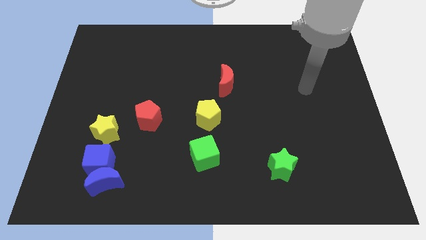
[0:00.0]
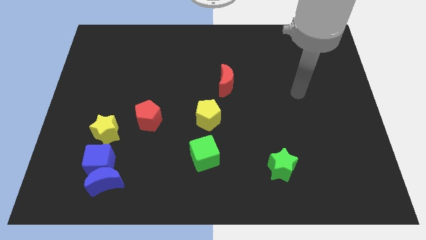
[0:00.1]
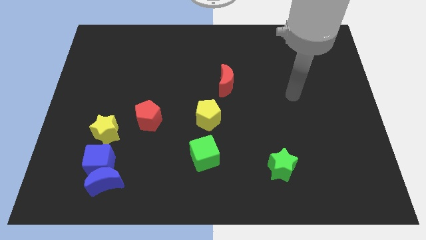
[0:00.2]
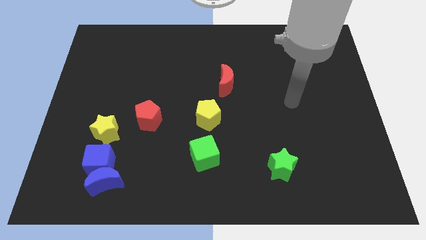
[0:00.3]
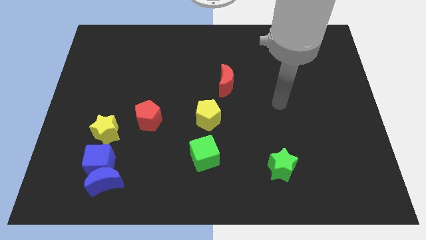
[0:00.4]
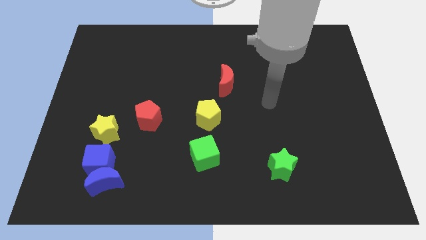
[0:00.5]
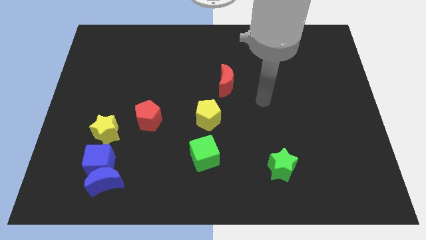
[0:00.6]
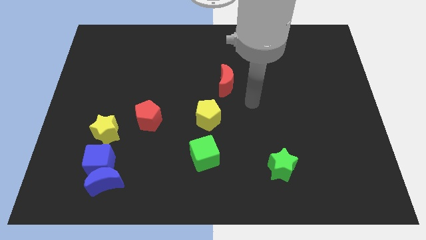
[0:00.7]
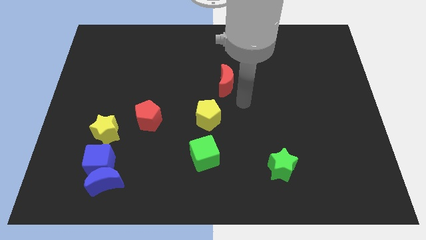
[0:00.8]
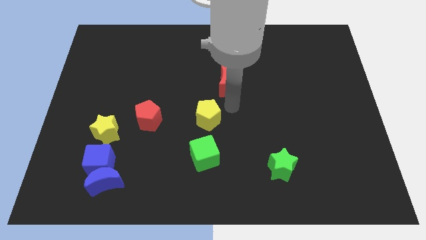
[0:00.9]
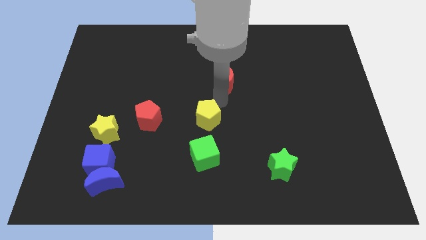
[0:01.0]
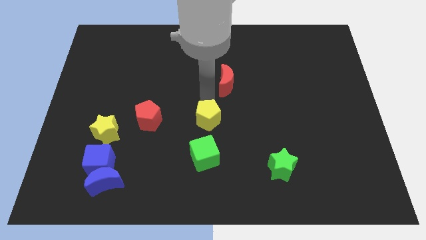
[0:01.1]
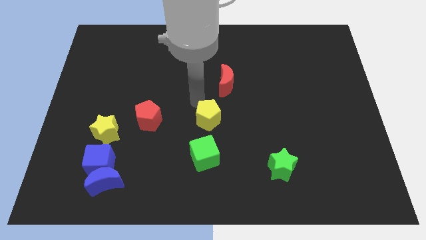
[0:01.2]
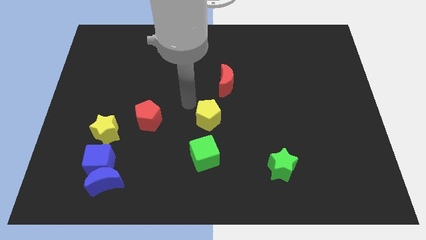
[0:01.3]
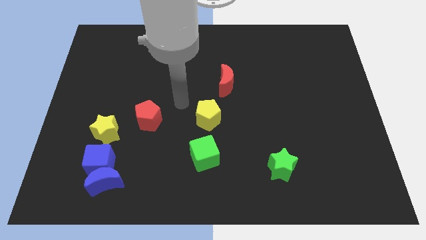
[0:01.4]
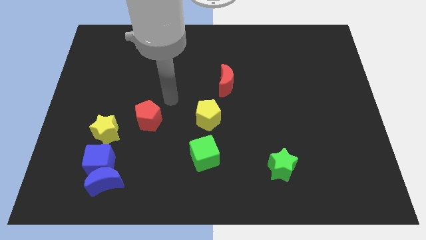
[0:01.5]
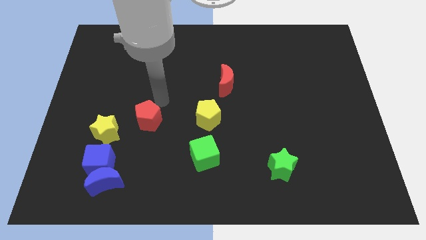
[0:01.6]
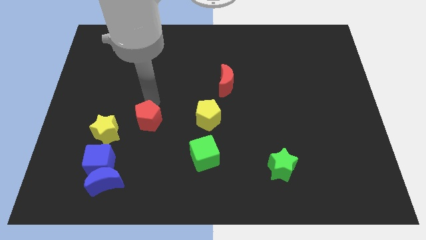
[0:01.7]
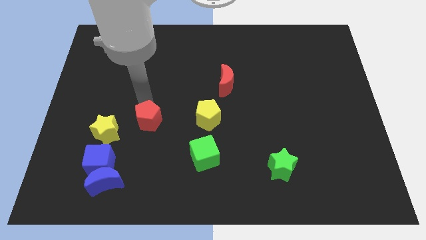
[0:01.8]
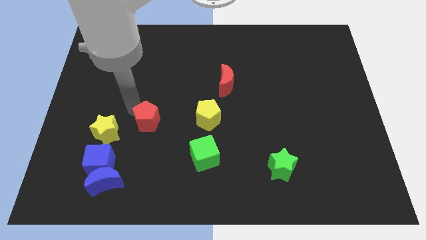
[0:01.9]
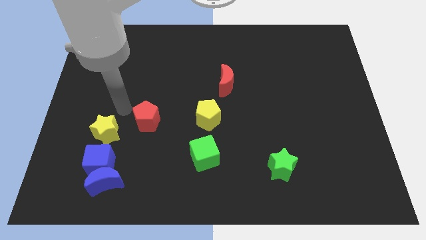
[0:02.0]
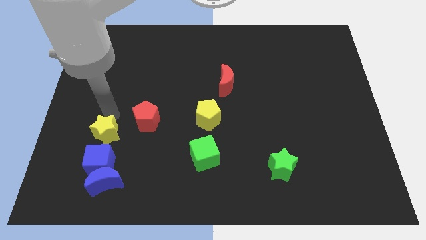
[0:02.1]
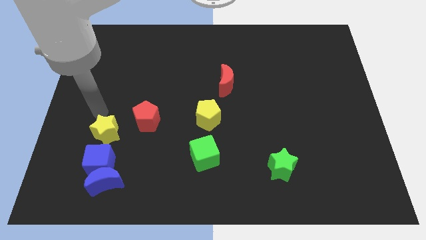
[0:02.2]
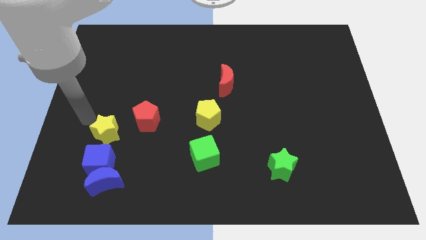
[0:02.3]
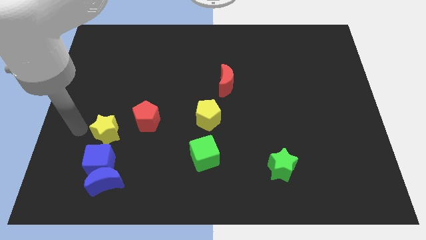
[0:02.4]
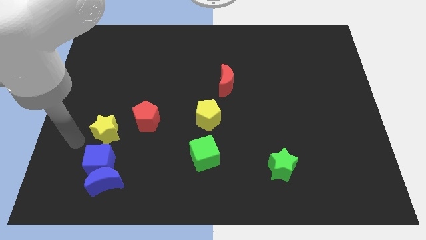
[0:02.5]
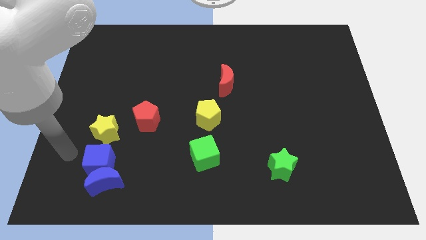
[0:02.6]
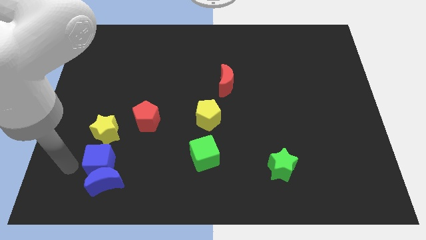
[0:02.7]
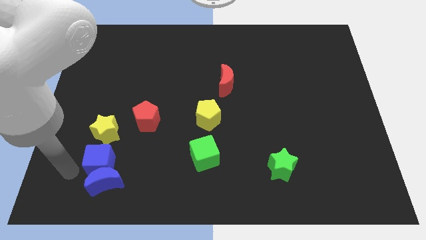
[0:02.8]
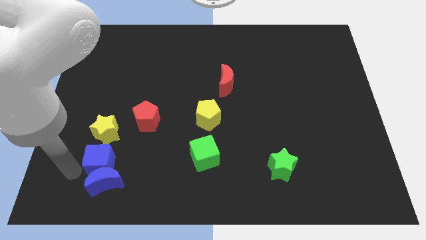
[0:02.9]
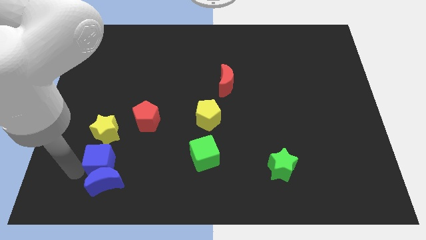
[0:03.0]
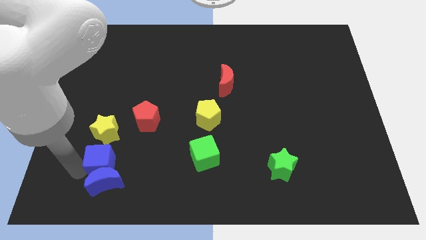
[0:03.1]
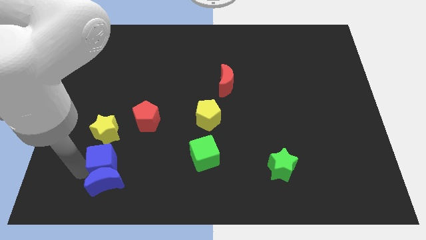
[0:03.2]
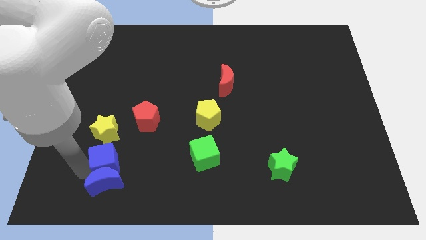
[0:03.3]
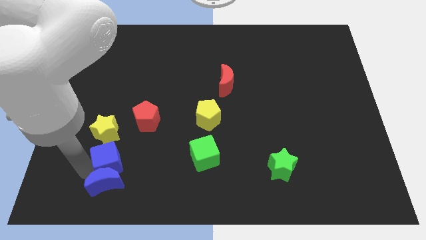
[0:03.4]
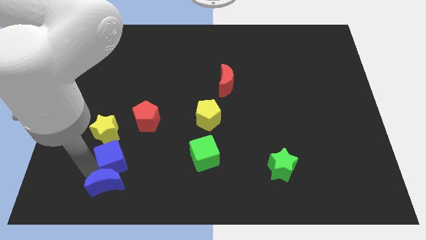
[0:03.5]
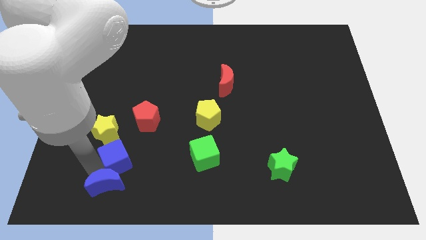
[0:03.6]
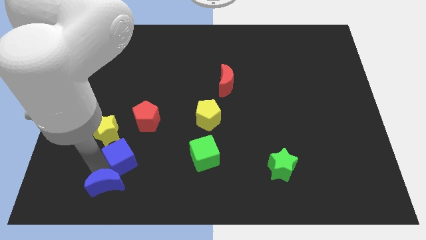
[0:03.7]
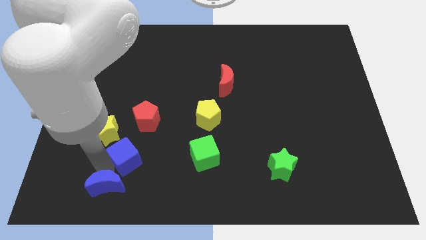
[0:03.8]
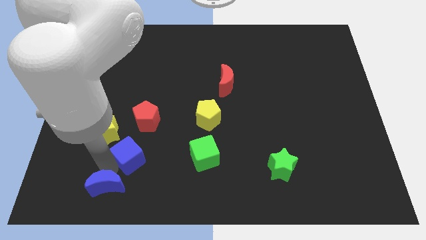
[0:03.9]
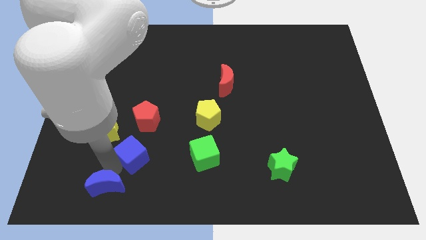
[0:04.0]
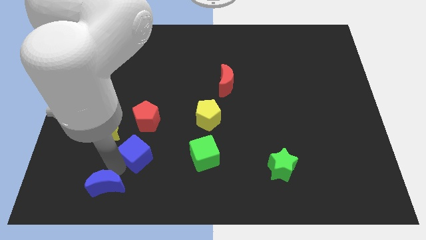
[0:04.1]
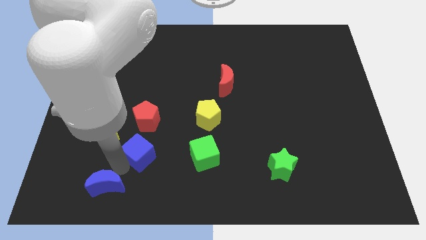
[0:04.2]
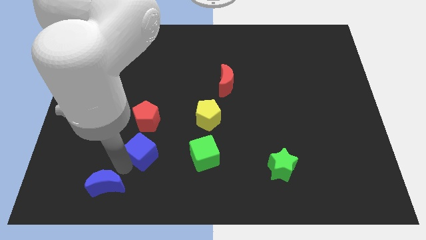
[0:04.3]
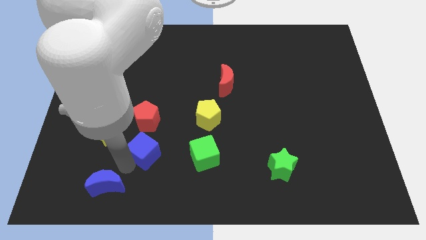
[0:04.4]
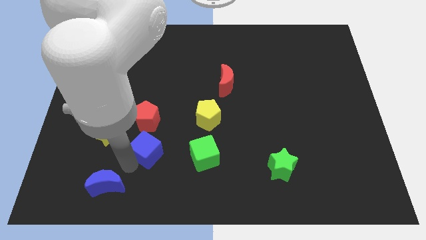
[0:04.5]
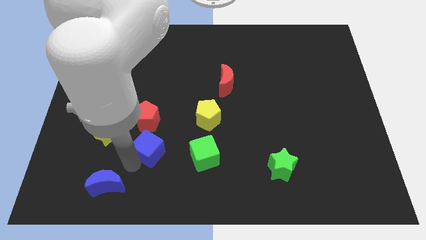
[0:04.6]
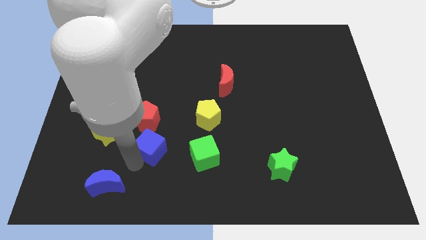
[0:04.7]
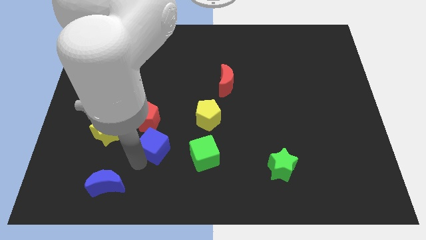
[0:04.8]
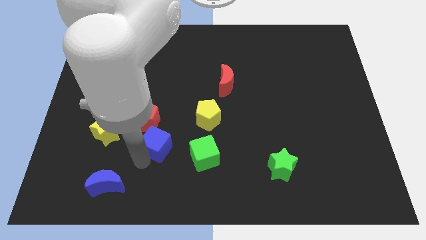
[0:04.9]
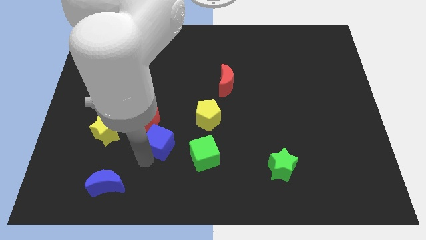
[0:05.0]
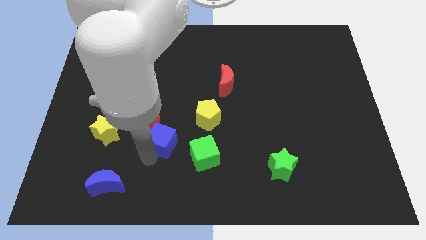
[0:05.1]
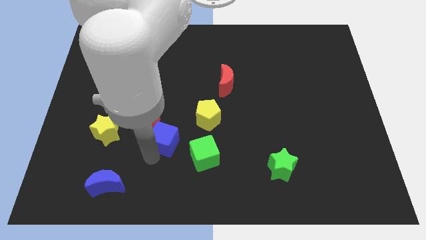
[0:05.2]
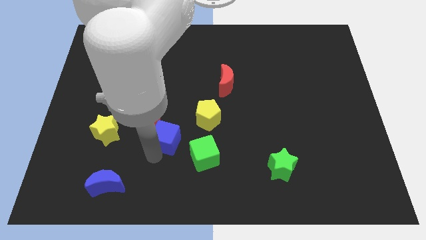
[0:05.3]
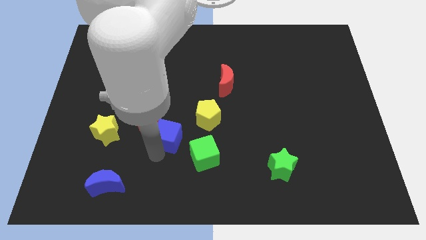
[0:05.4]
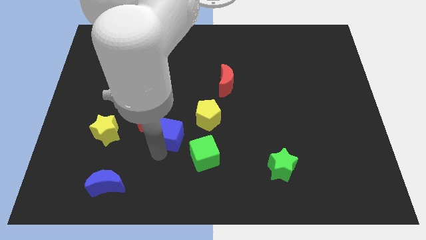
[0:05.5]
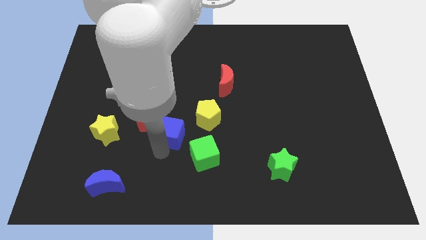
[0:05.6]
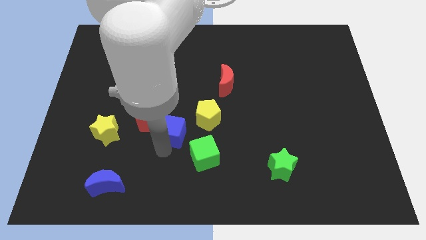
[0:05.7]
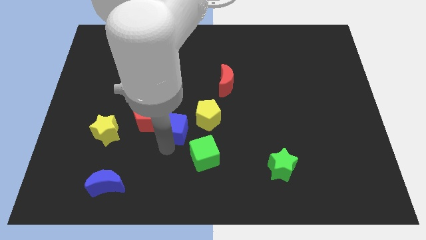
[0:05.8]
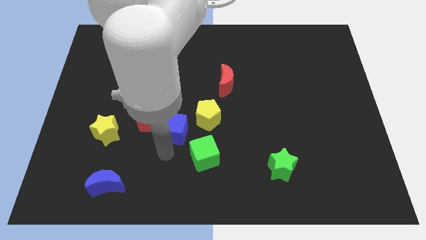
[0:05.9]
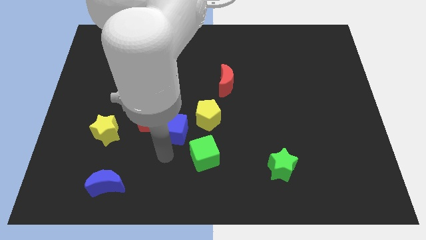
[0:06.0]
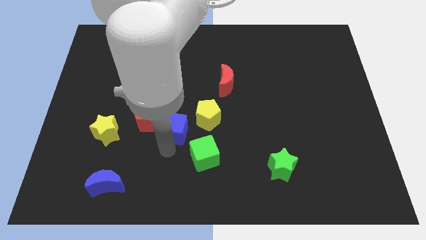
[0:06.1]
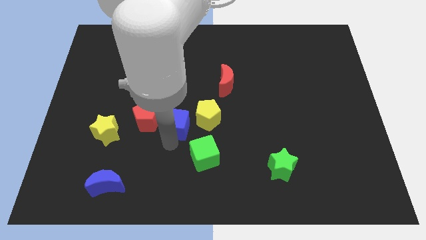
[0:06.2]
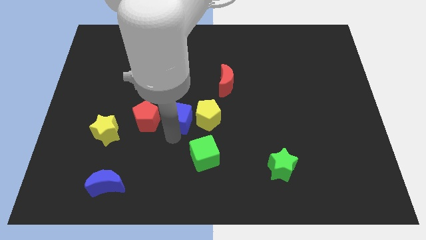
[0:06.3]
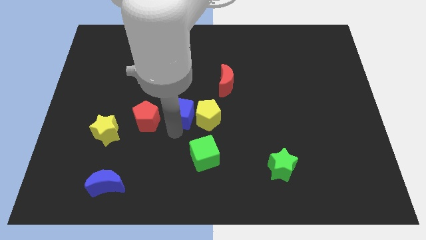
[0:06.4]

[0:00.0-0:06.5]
slide the blue cube upwards and to the right diagonally

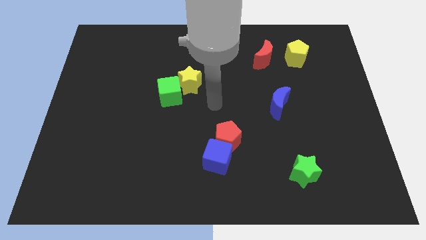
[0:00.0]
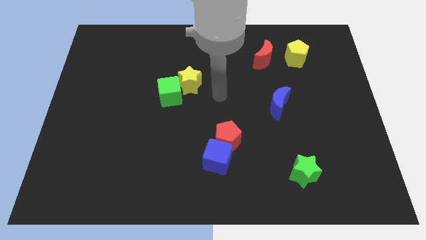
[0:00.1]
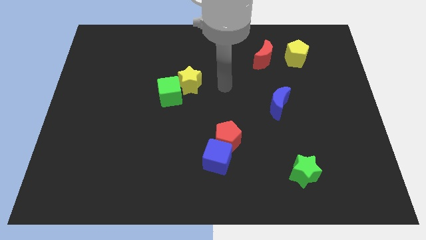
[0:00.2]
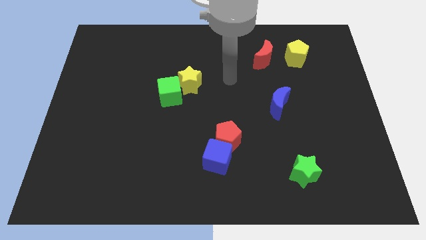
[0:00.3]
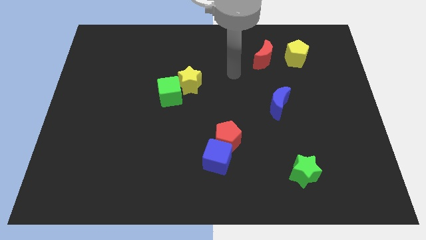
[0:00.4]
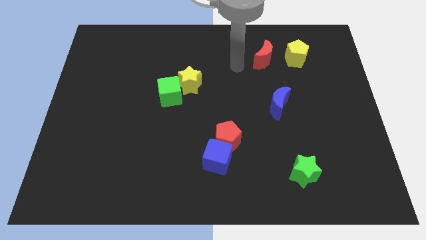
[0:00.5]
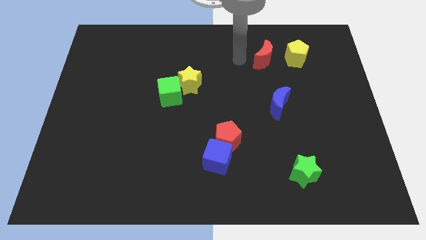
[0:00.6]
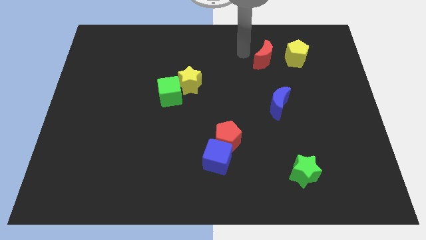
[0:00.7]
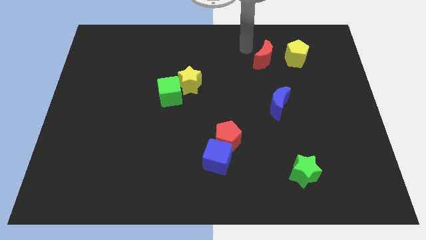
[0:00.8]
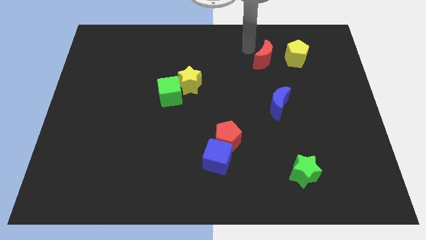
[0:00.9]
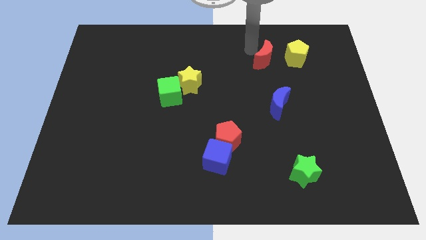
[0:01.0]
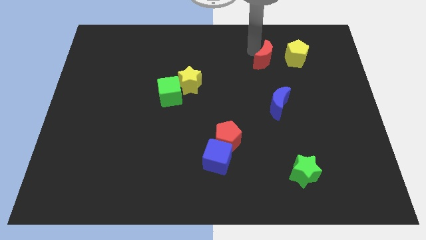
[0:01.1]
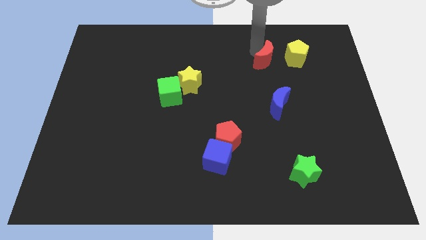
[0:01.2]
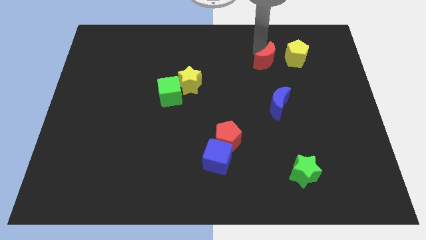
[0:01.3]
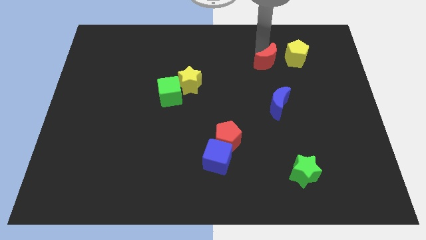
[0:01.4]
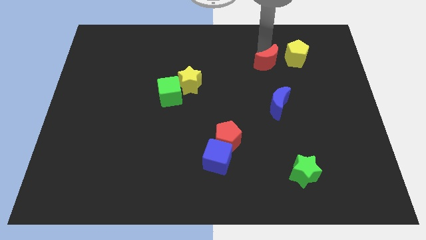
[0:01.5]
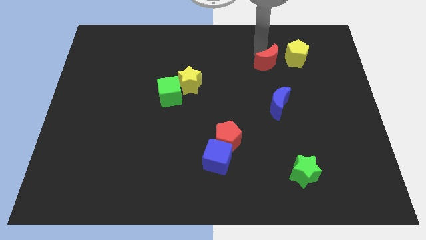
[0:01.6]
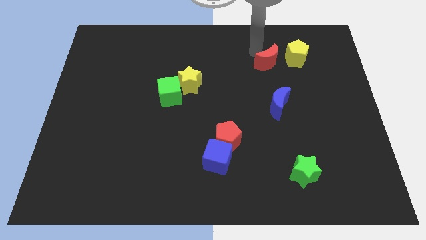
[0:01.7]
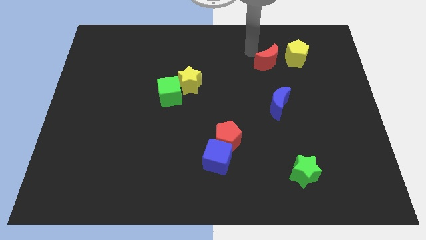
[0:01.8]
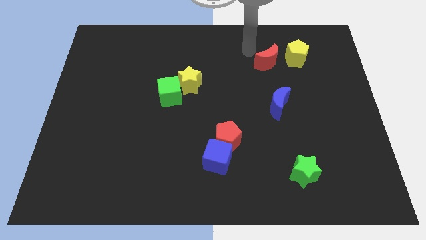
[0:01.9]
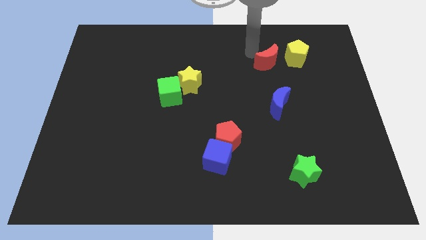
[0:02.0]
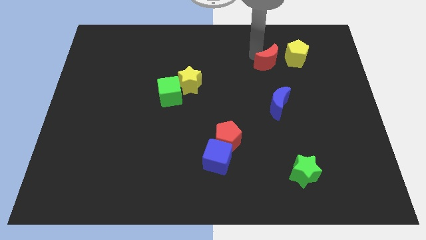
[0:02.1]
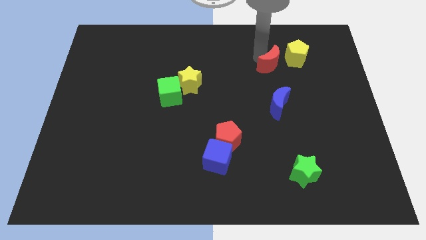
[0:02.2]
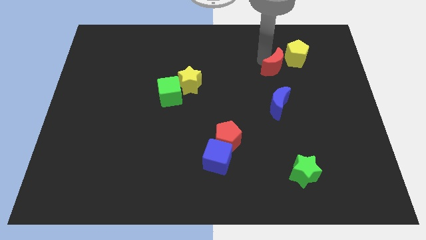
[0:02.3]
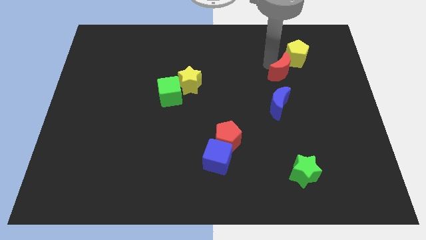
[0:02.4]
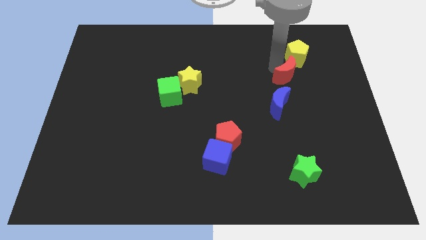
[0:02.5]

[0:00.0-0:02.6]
slightly push the red moon diagonally down and to the right
